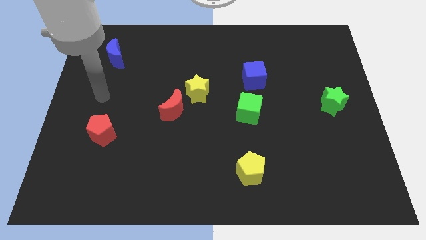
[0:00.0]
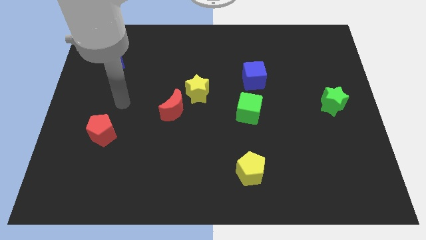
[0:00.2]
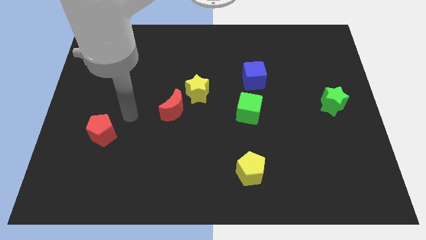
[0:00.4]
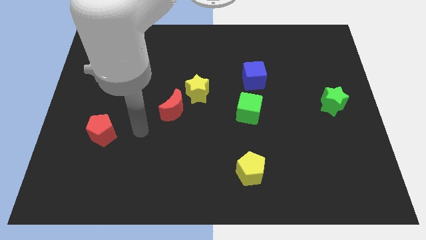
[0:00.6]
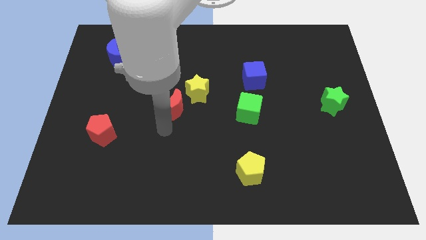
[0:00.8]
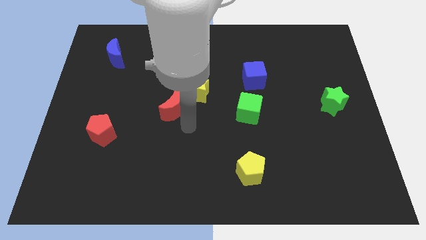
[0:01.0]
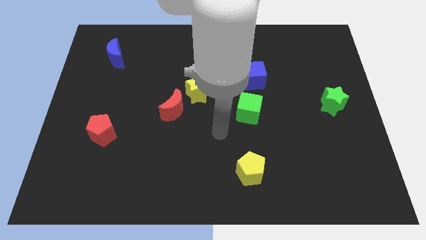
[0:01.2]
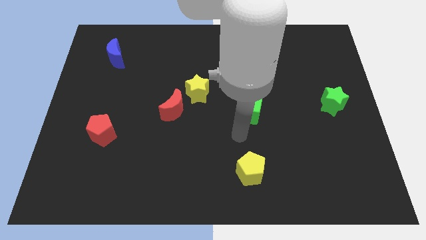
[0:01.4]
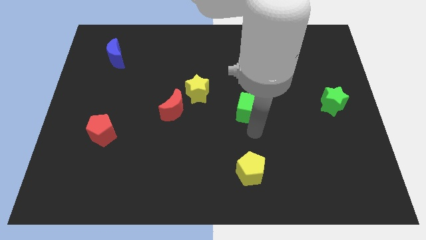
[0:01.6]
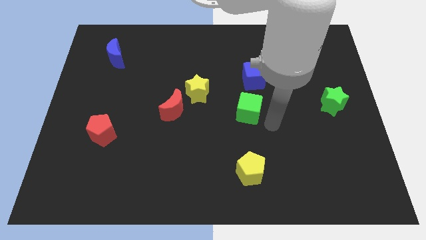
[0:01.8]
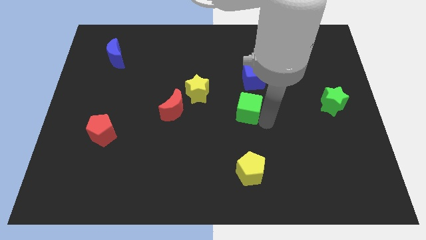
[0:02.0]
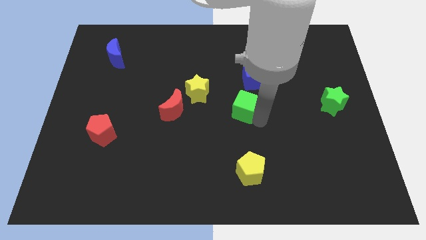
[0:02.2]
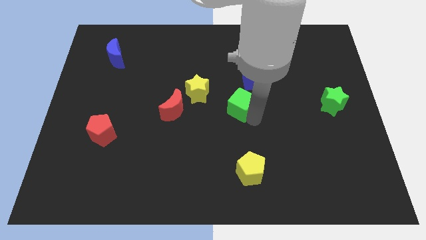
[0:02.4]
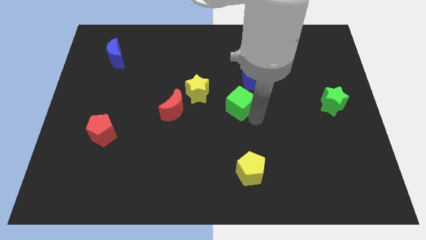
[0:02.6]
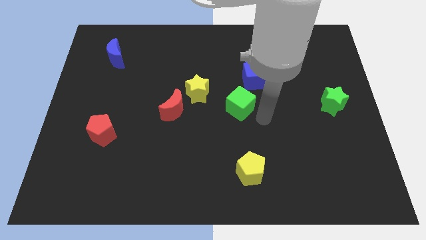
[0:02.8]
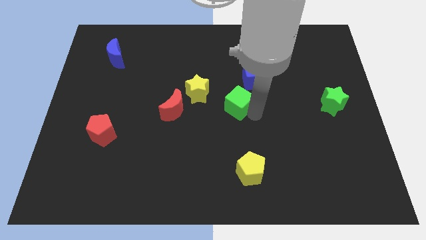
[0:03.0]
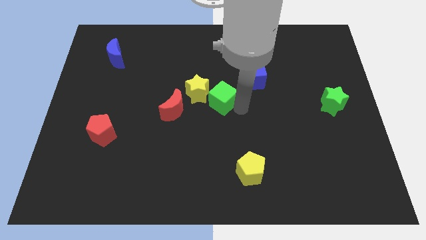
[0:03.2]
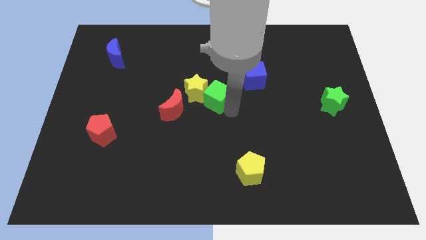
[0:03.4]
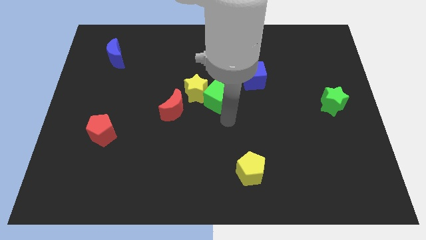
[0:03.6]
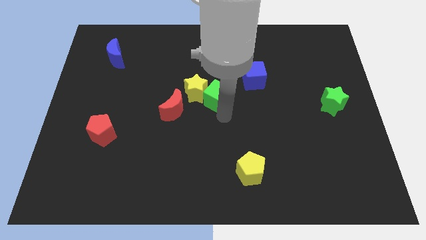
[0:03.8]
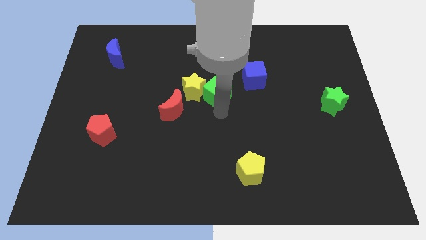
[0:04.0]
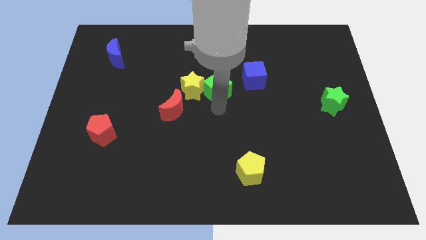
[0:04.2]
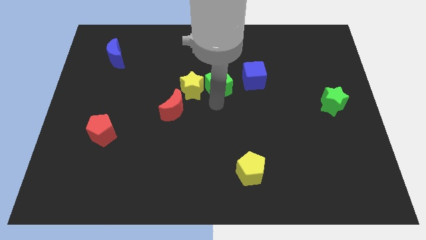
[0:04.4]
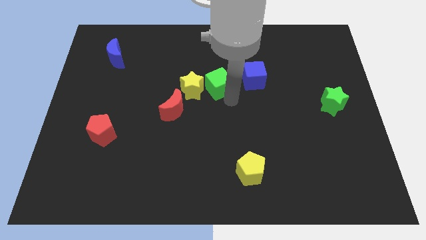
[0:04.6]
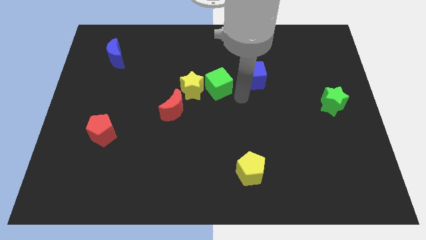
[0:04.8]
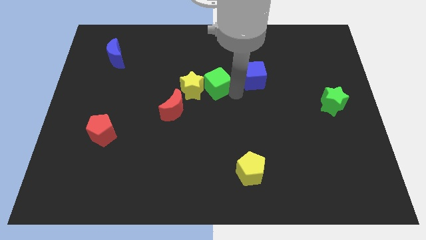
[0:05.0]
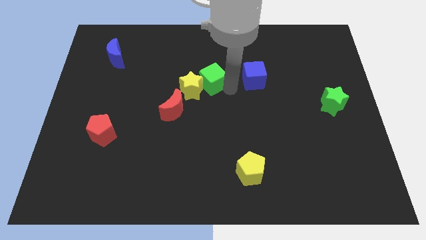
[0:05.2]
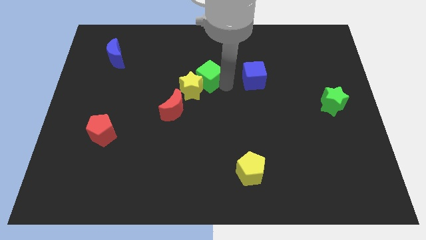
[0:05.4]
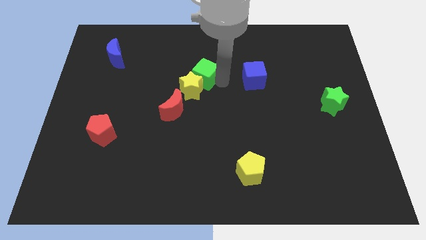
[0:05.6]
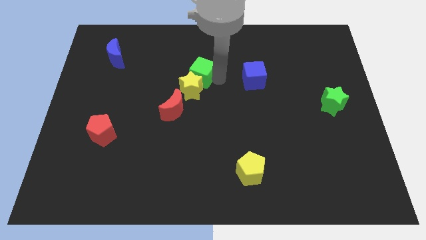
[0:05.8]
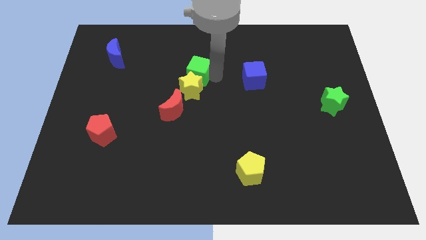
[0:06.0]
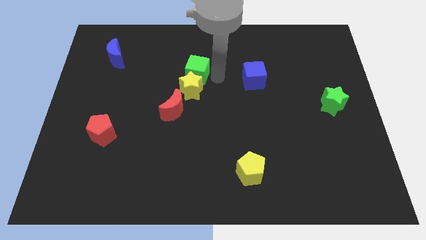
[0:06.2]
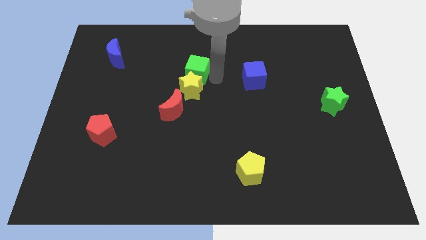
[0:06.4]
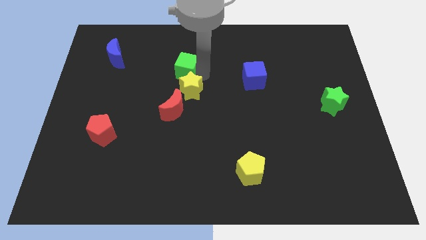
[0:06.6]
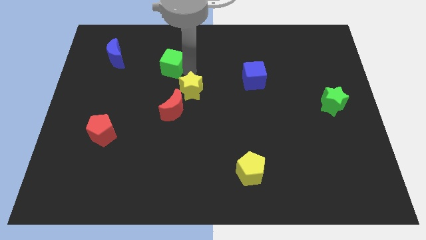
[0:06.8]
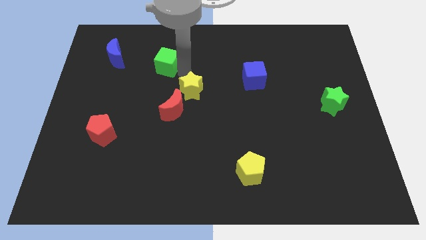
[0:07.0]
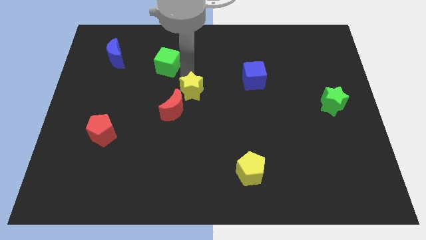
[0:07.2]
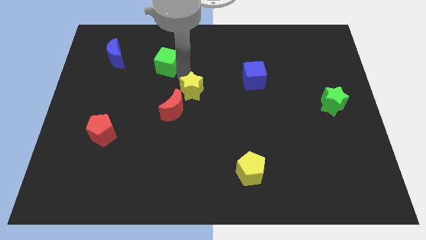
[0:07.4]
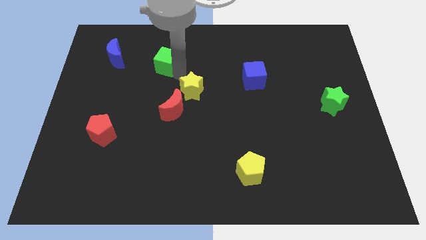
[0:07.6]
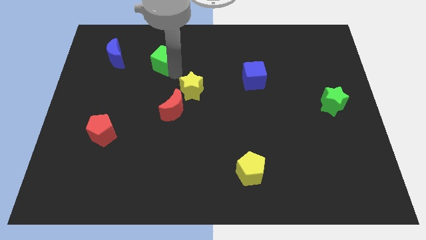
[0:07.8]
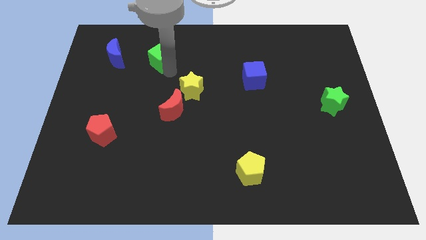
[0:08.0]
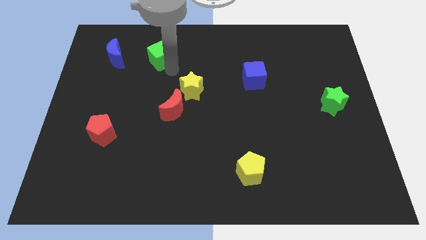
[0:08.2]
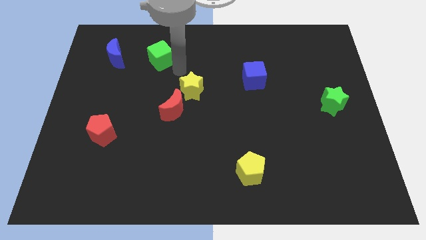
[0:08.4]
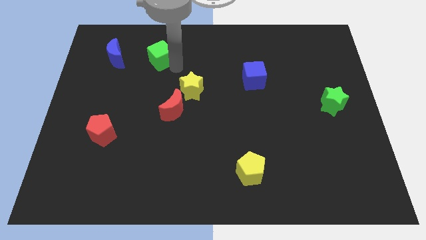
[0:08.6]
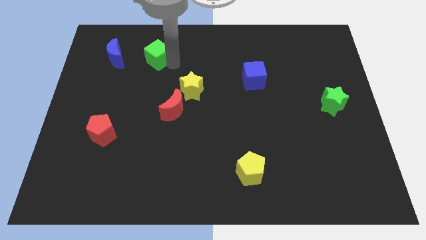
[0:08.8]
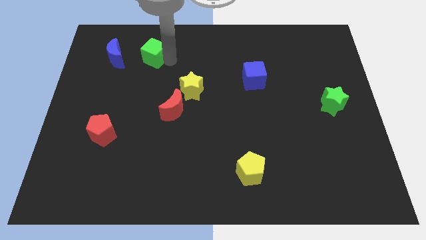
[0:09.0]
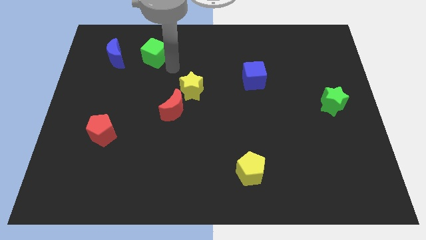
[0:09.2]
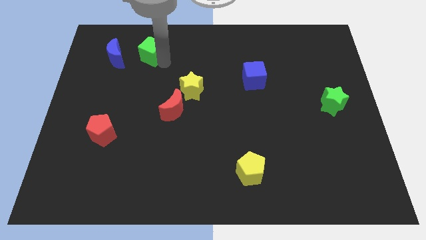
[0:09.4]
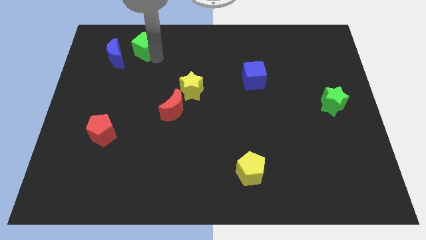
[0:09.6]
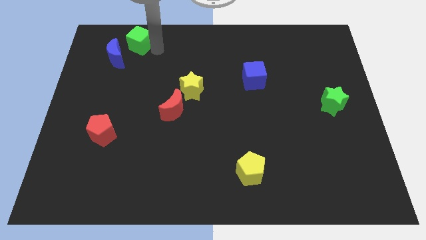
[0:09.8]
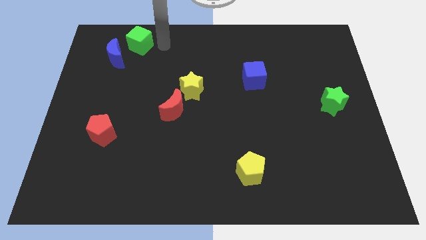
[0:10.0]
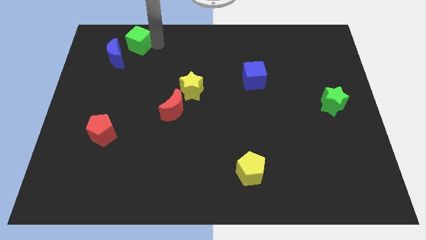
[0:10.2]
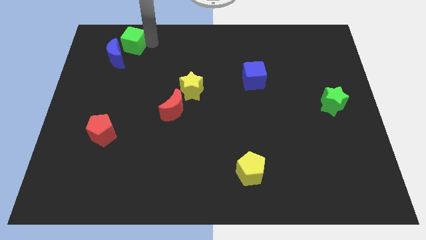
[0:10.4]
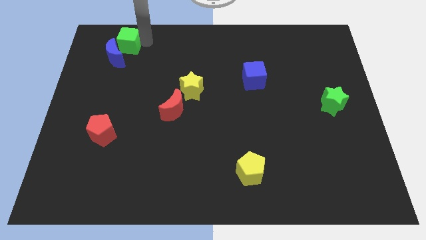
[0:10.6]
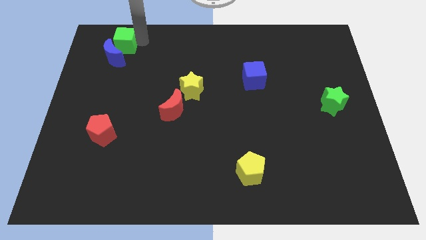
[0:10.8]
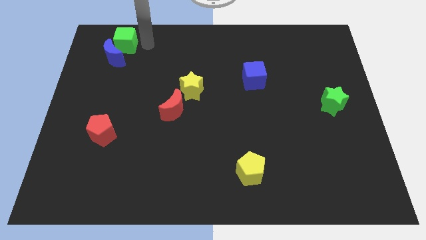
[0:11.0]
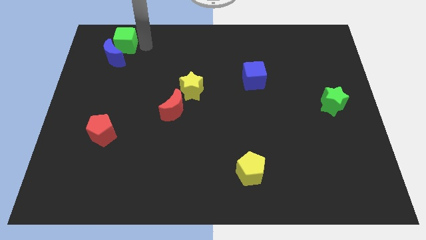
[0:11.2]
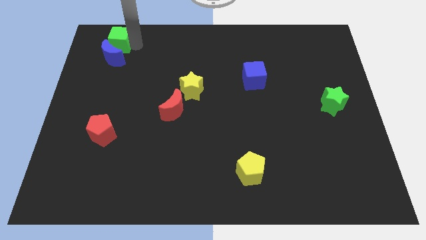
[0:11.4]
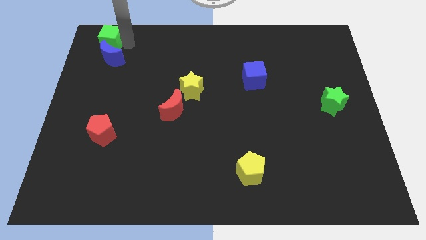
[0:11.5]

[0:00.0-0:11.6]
put the green cube to the top left corner
